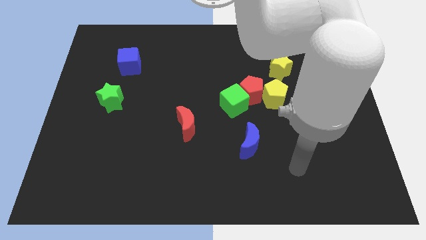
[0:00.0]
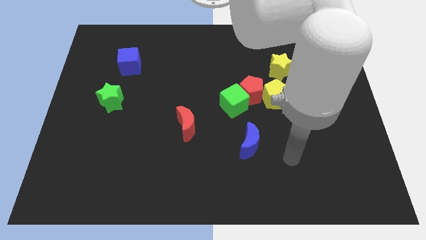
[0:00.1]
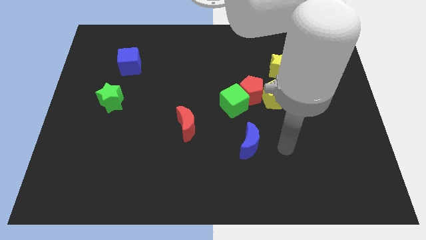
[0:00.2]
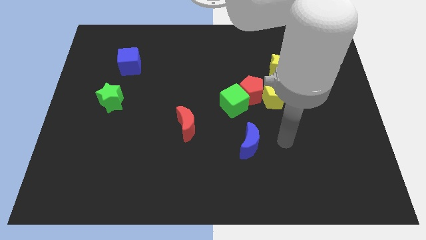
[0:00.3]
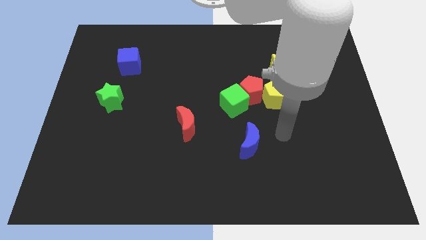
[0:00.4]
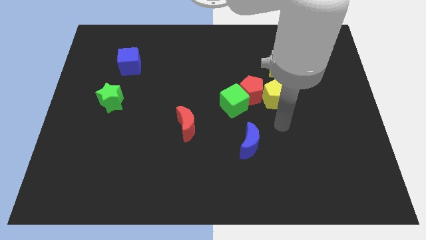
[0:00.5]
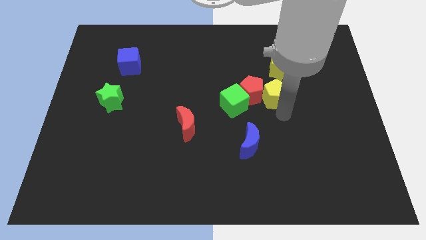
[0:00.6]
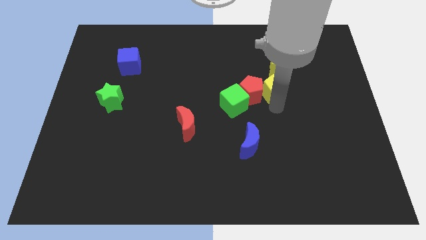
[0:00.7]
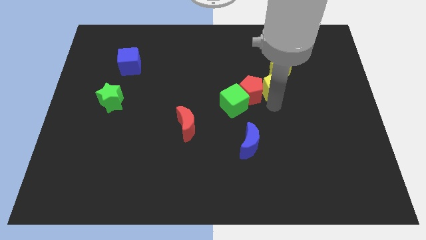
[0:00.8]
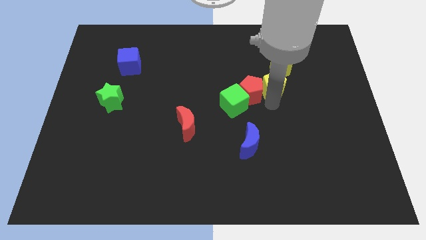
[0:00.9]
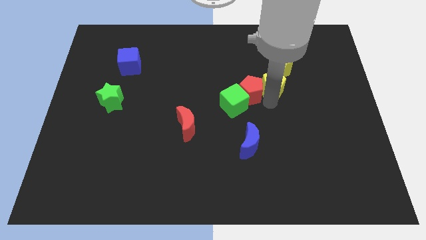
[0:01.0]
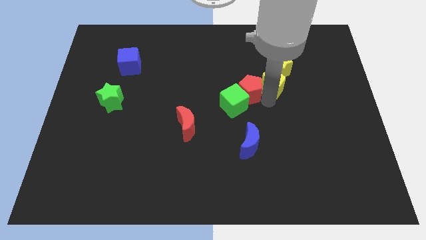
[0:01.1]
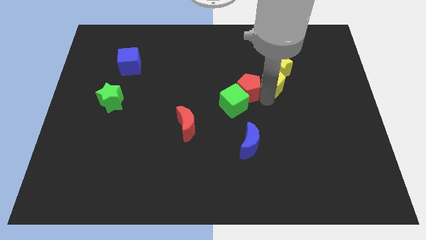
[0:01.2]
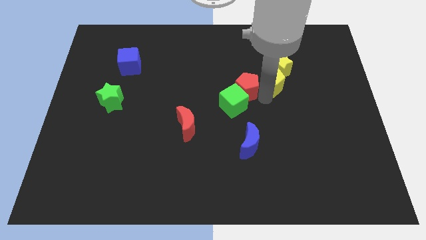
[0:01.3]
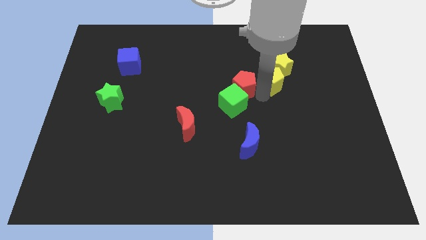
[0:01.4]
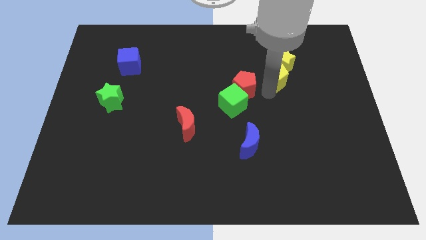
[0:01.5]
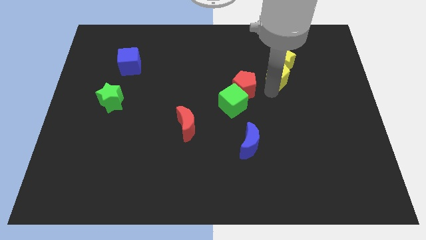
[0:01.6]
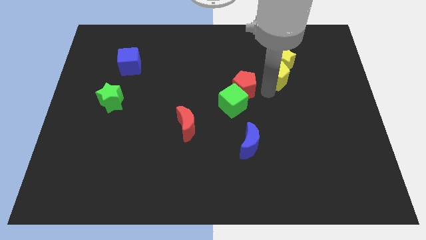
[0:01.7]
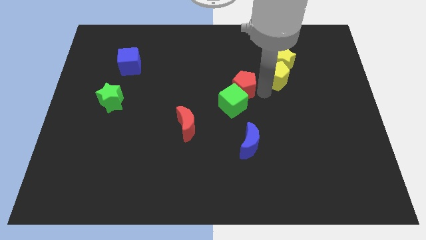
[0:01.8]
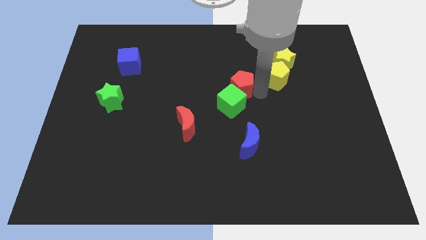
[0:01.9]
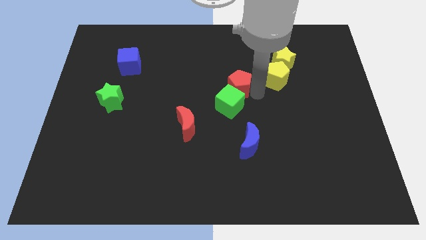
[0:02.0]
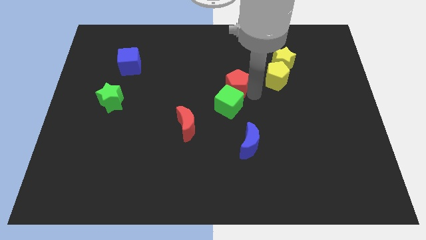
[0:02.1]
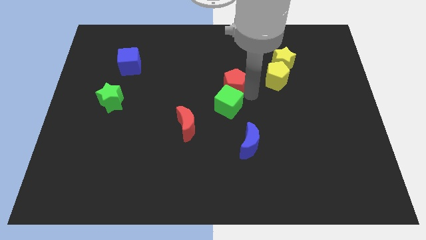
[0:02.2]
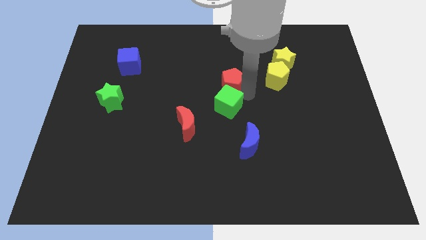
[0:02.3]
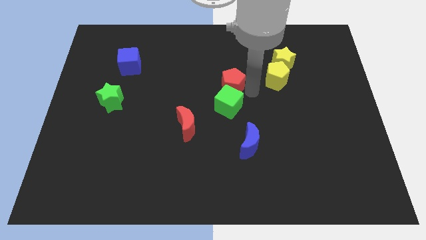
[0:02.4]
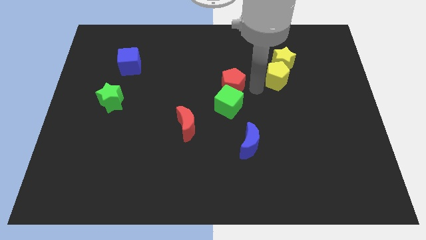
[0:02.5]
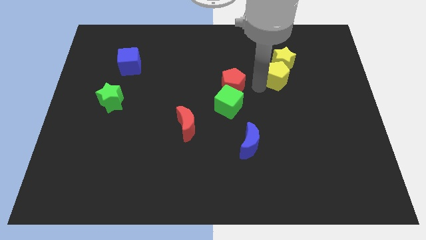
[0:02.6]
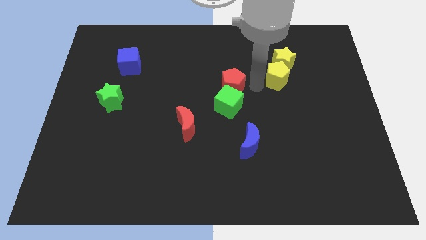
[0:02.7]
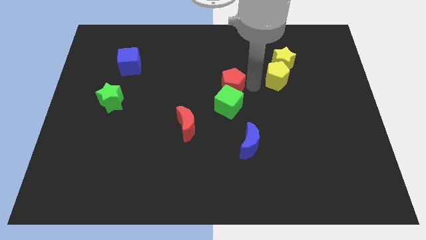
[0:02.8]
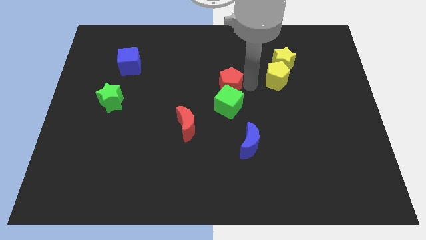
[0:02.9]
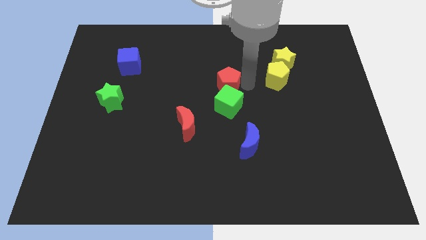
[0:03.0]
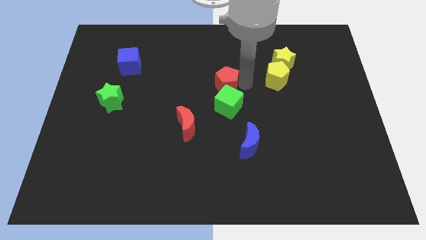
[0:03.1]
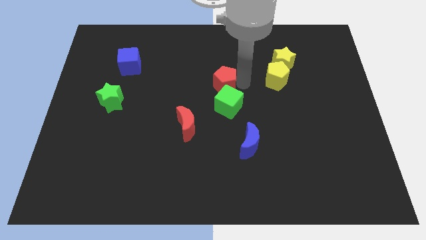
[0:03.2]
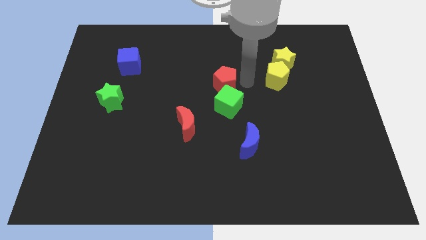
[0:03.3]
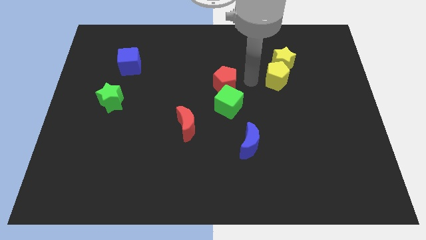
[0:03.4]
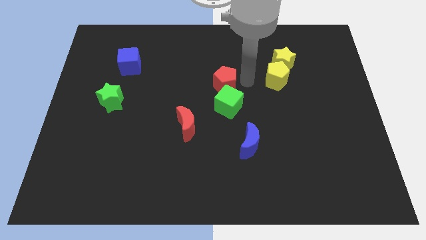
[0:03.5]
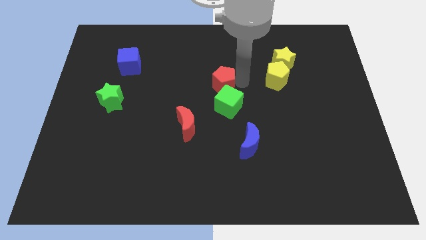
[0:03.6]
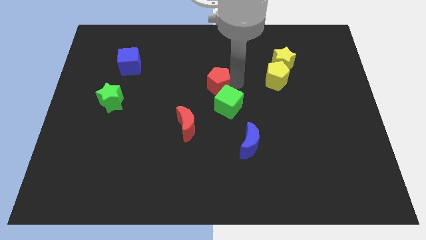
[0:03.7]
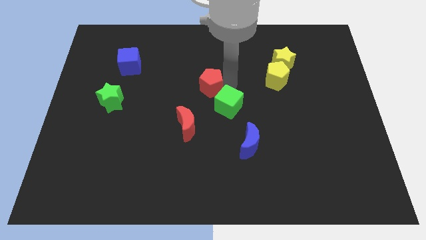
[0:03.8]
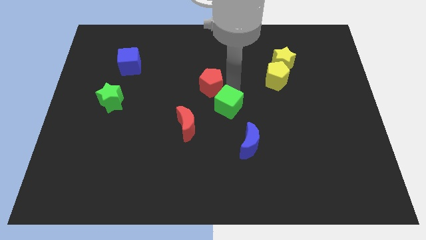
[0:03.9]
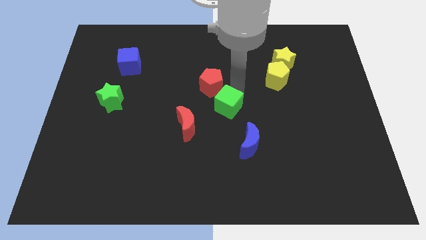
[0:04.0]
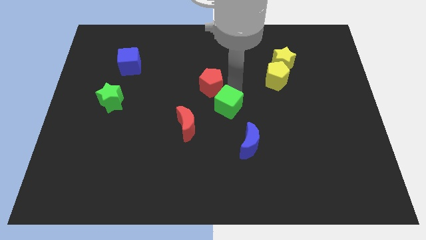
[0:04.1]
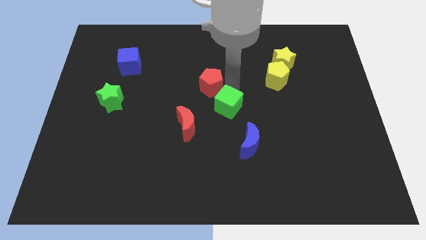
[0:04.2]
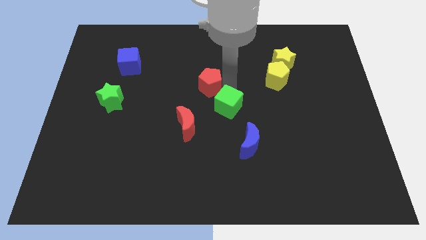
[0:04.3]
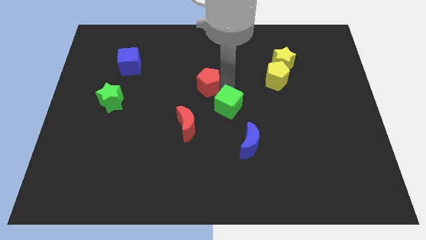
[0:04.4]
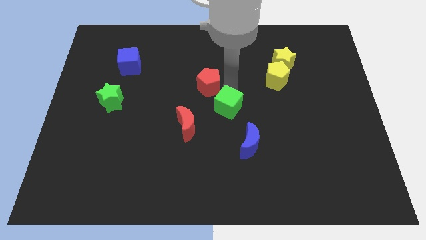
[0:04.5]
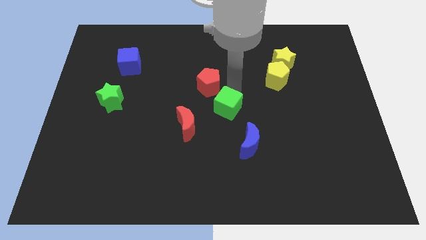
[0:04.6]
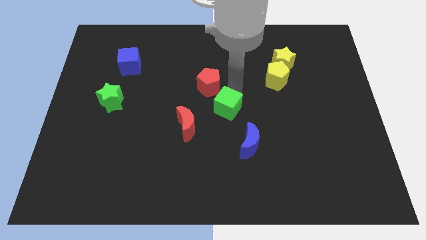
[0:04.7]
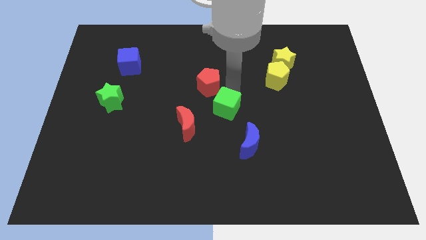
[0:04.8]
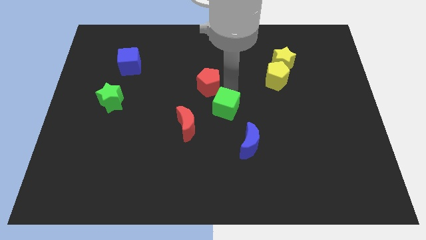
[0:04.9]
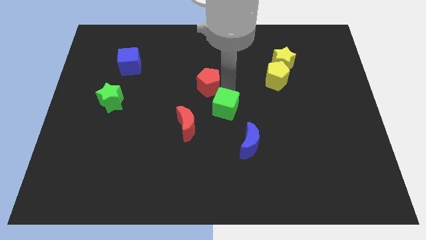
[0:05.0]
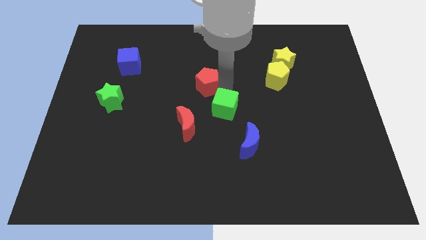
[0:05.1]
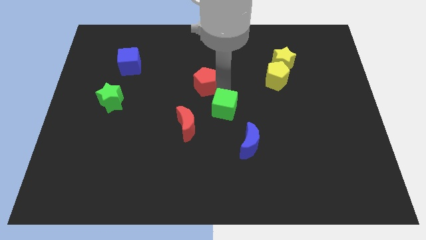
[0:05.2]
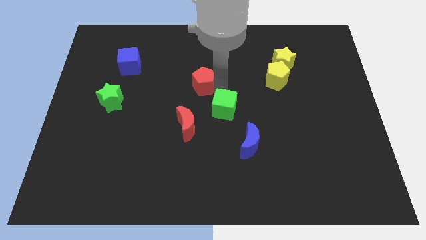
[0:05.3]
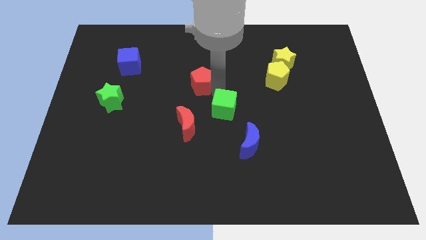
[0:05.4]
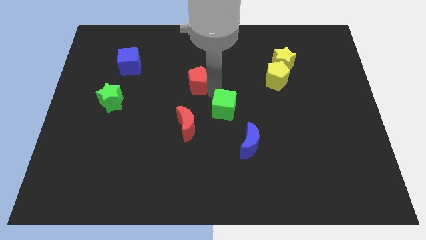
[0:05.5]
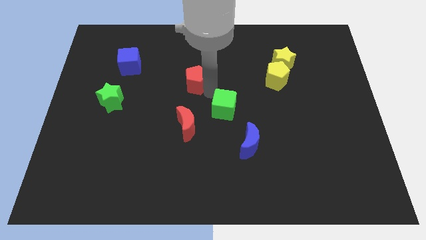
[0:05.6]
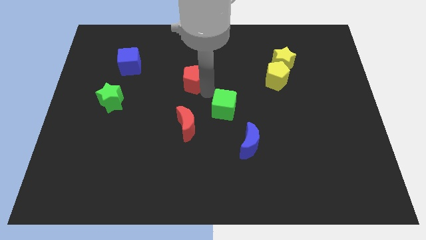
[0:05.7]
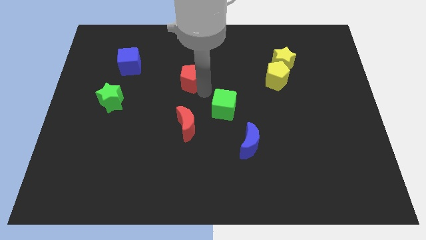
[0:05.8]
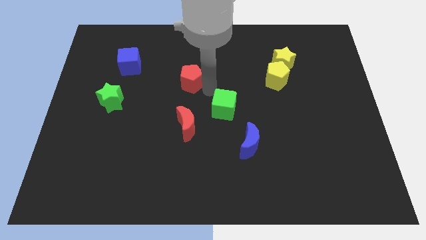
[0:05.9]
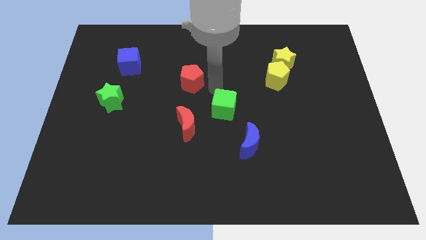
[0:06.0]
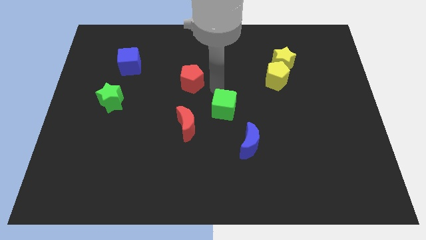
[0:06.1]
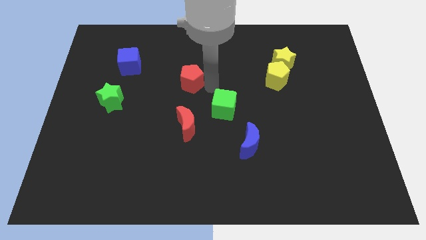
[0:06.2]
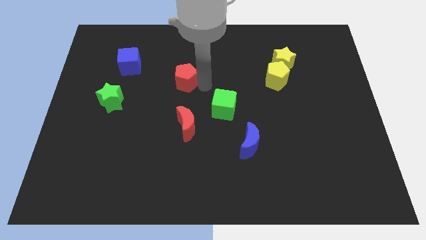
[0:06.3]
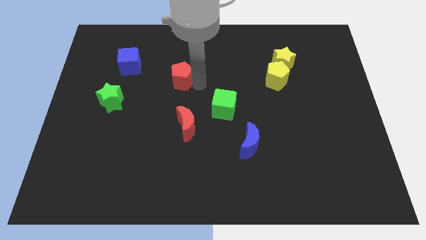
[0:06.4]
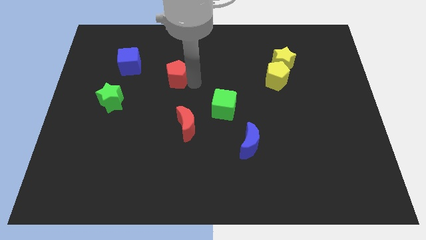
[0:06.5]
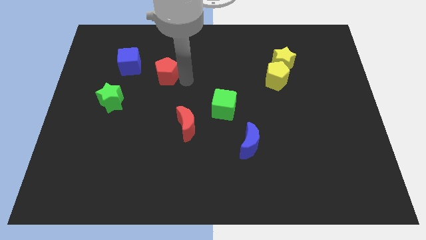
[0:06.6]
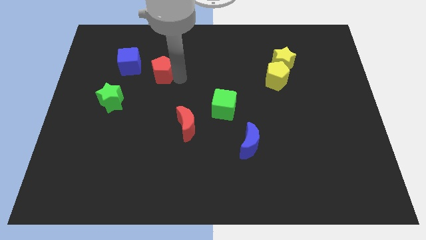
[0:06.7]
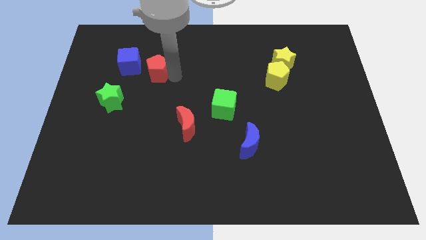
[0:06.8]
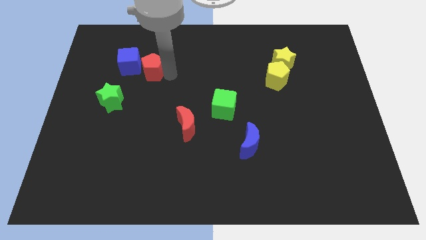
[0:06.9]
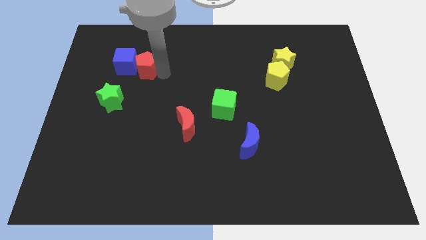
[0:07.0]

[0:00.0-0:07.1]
put the red pentagon to the blue cube

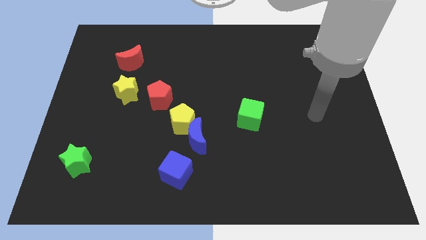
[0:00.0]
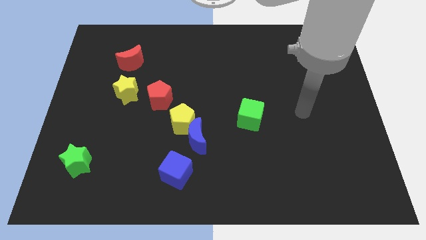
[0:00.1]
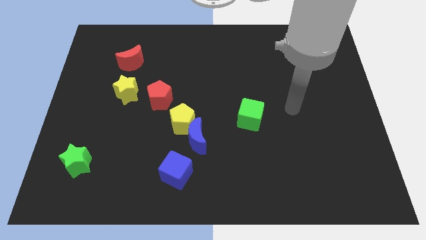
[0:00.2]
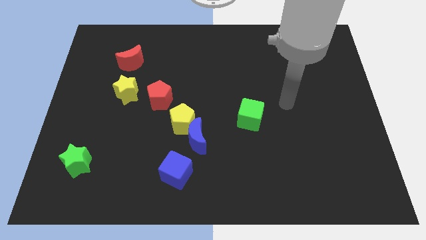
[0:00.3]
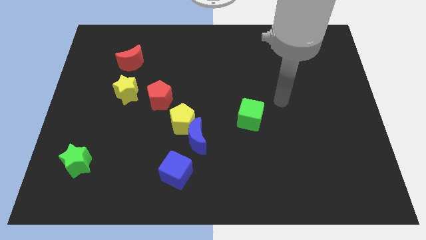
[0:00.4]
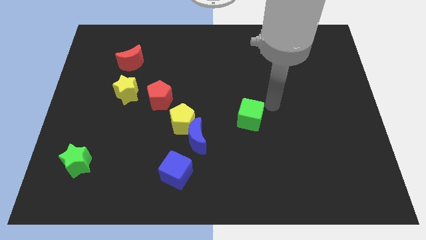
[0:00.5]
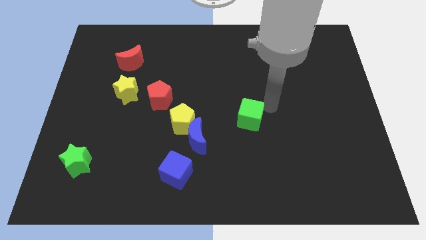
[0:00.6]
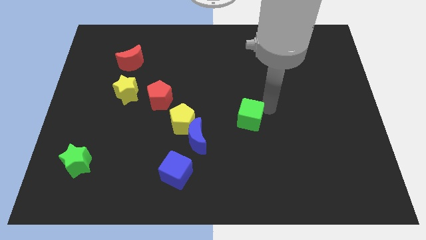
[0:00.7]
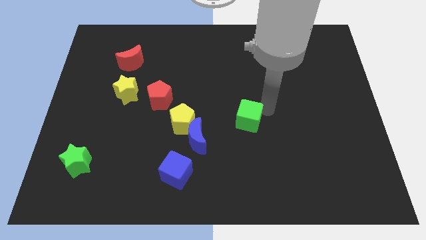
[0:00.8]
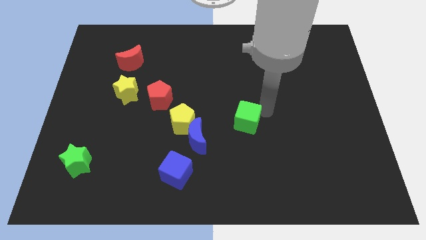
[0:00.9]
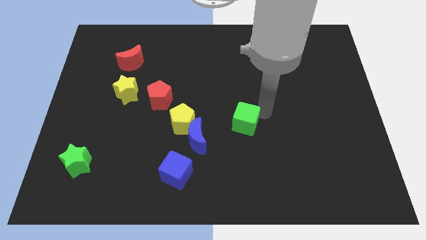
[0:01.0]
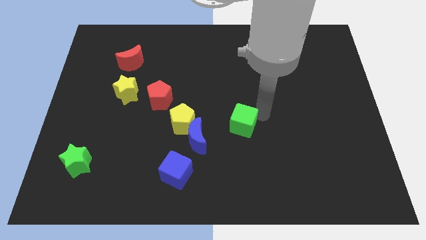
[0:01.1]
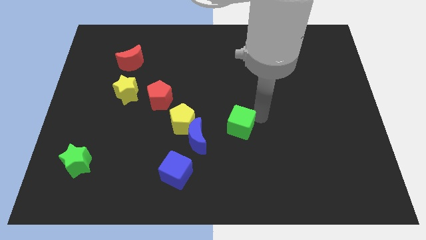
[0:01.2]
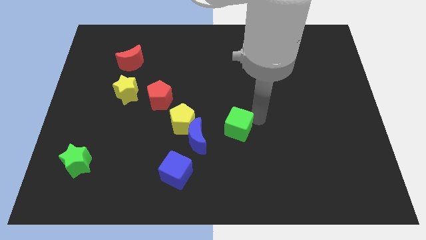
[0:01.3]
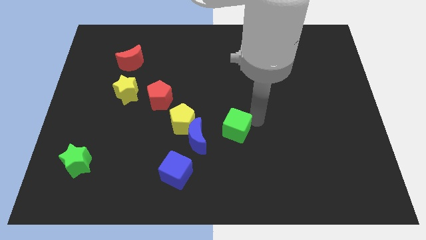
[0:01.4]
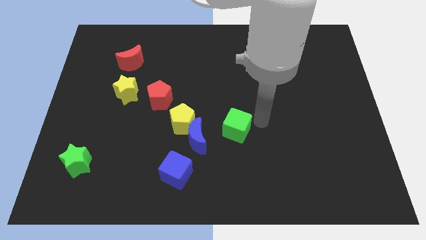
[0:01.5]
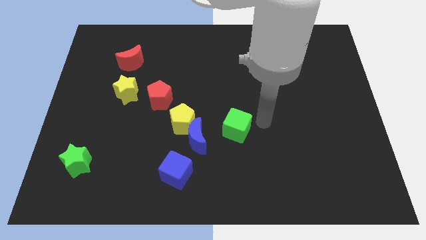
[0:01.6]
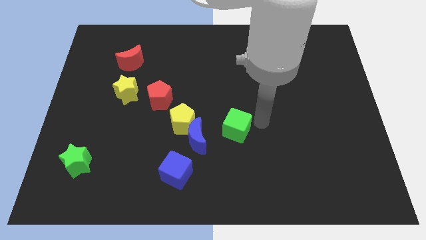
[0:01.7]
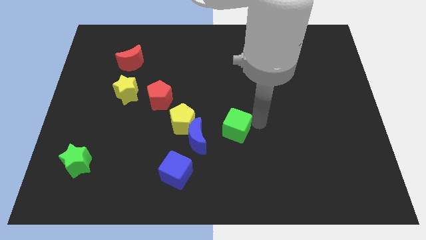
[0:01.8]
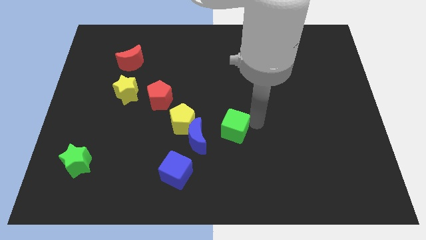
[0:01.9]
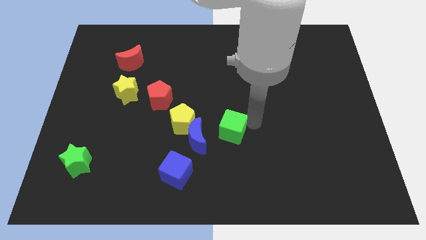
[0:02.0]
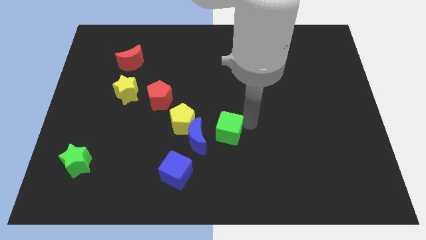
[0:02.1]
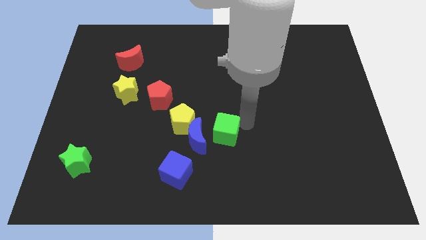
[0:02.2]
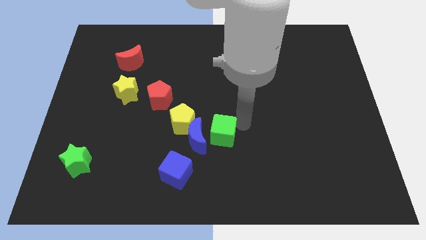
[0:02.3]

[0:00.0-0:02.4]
push the green cube next to the blue moon
